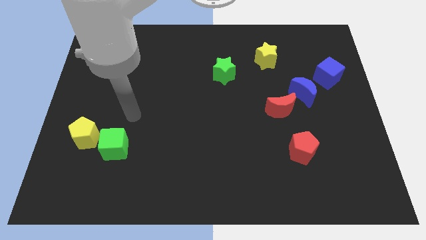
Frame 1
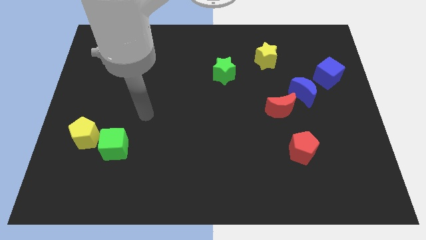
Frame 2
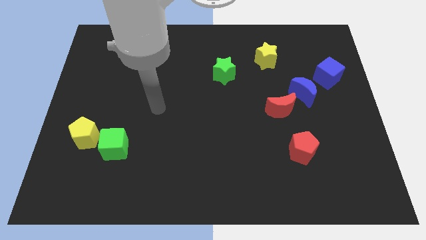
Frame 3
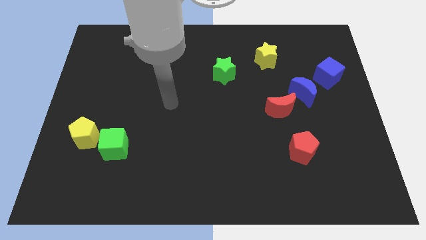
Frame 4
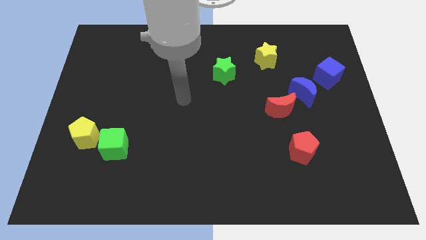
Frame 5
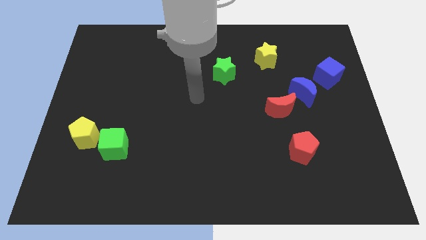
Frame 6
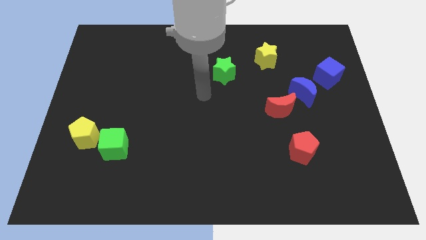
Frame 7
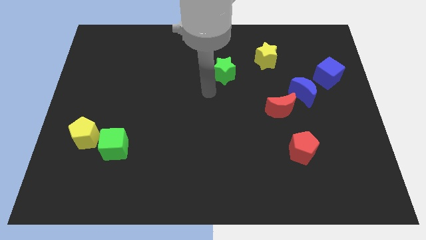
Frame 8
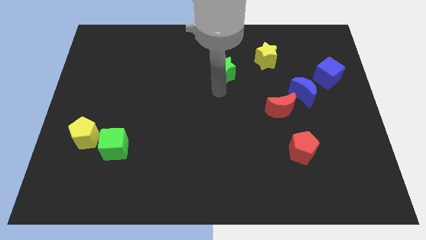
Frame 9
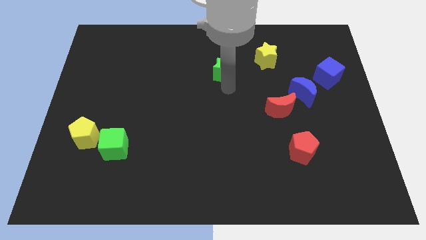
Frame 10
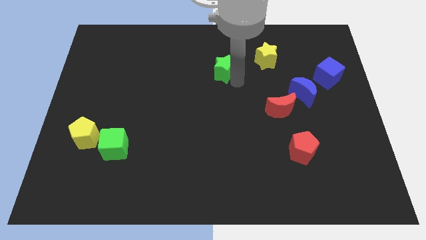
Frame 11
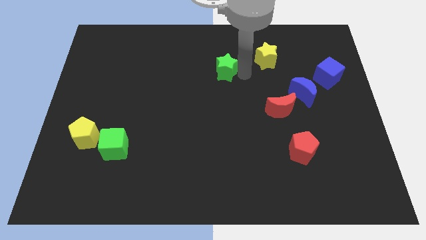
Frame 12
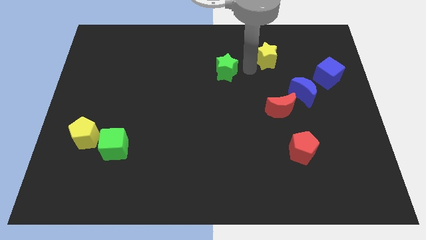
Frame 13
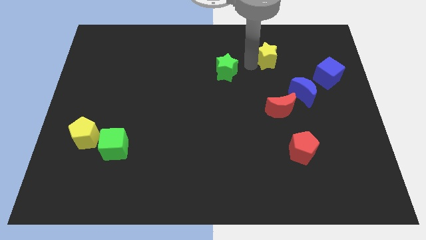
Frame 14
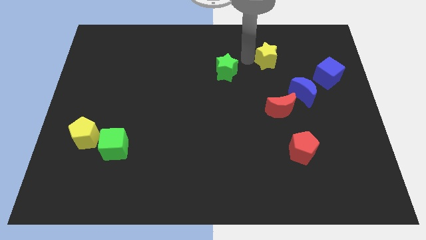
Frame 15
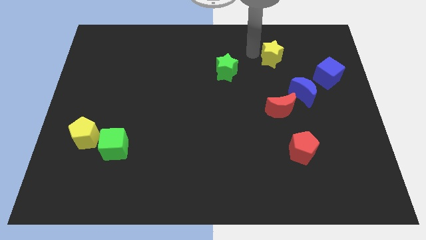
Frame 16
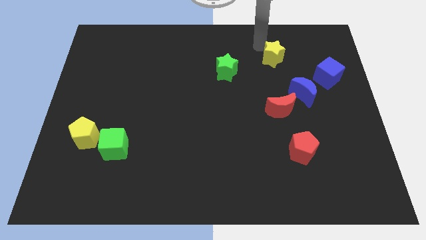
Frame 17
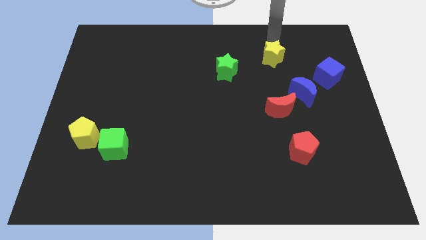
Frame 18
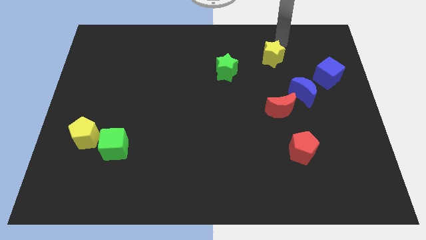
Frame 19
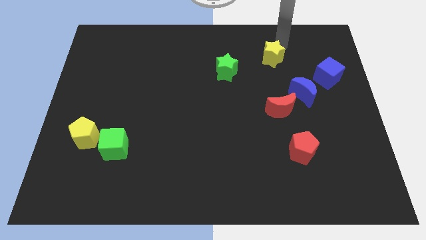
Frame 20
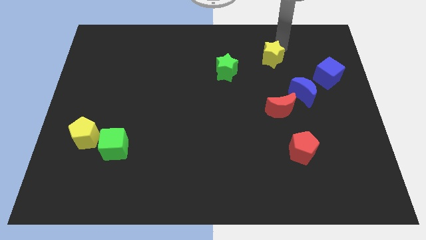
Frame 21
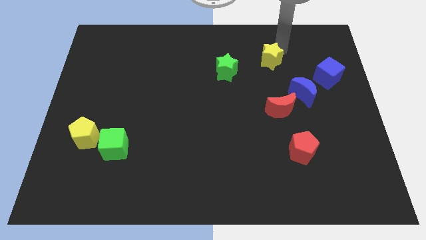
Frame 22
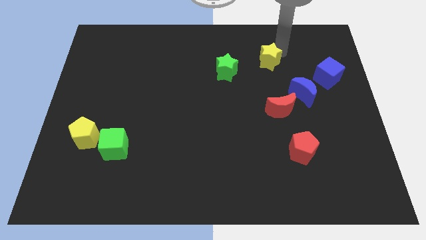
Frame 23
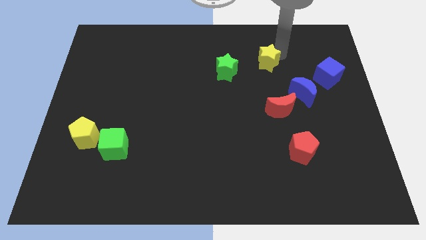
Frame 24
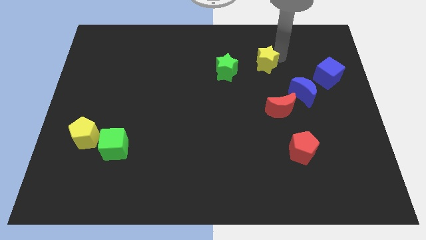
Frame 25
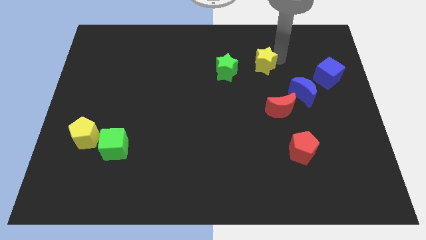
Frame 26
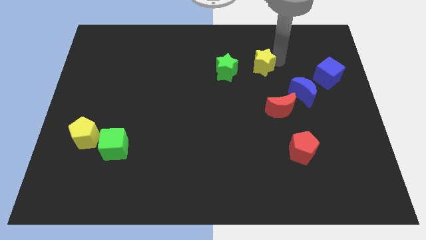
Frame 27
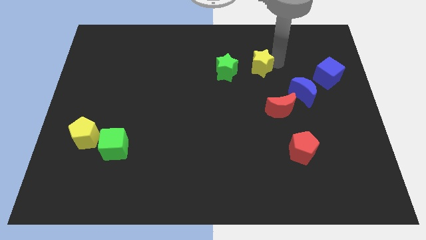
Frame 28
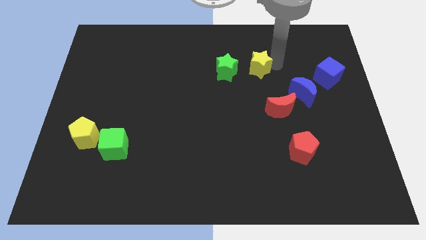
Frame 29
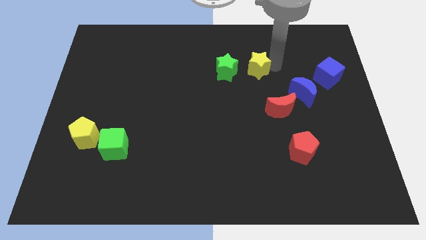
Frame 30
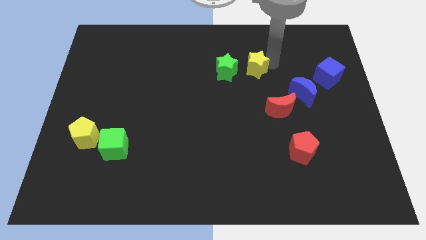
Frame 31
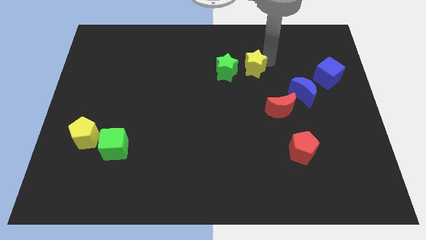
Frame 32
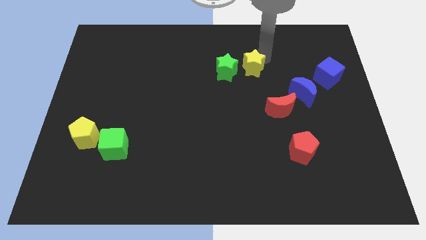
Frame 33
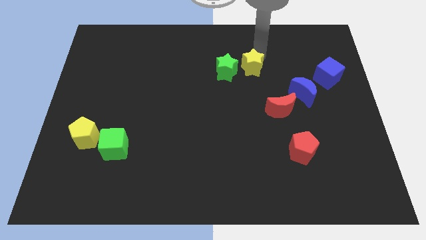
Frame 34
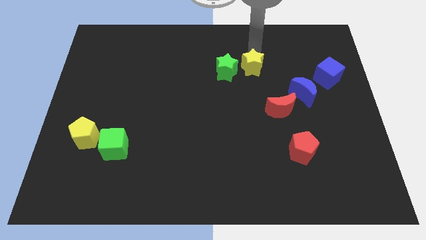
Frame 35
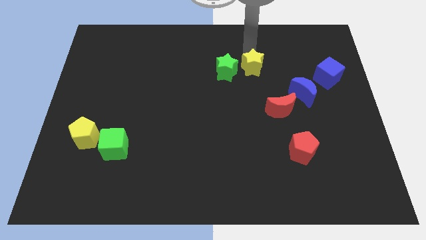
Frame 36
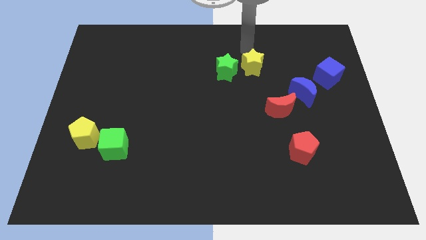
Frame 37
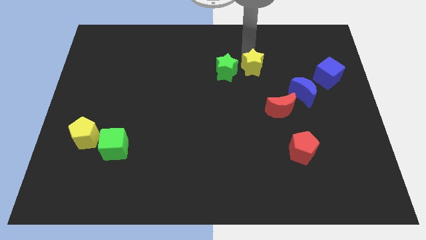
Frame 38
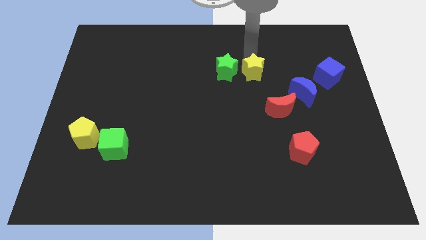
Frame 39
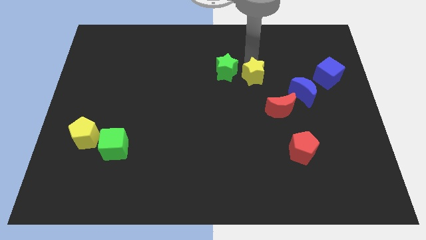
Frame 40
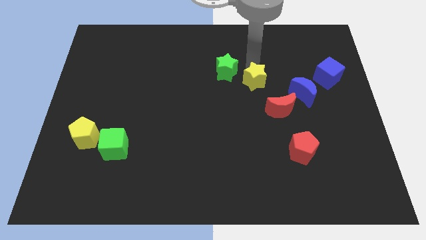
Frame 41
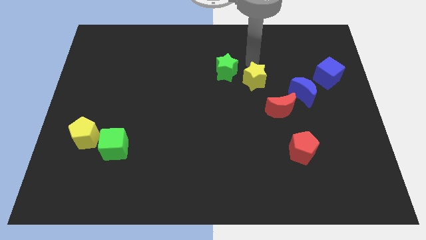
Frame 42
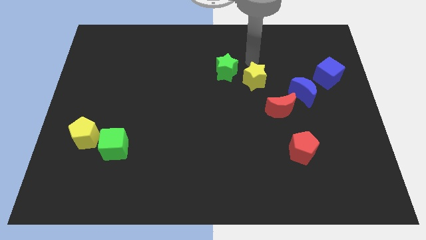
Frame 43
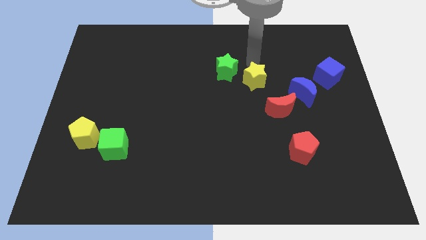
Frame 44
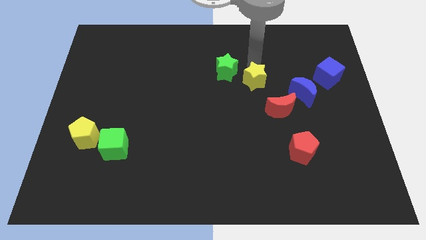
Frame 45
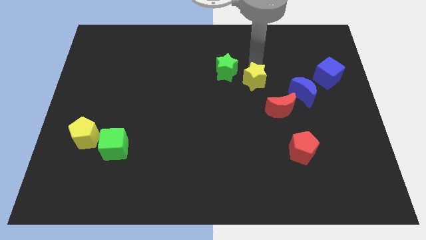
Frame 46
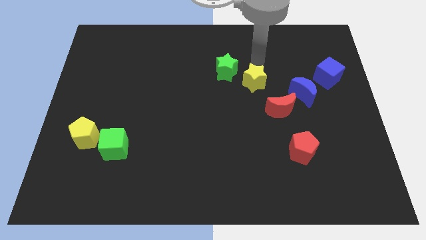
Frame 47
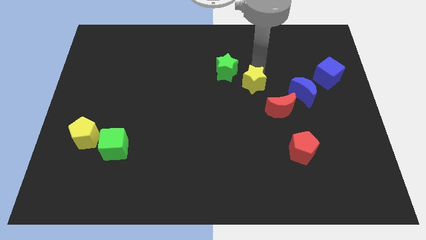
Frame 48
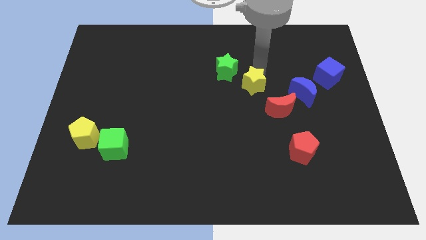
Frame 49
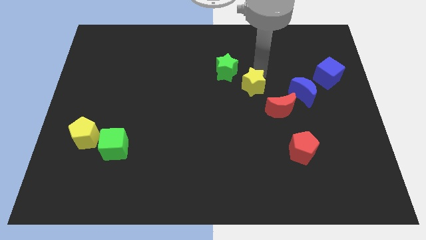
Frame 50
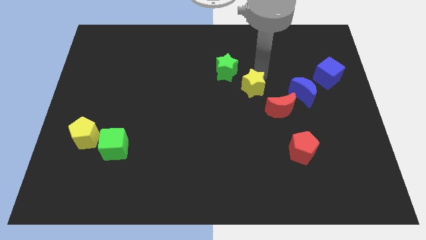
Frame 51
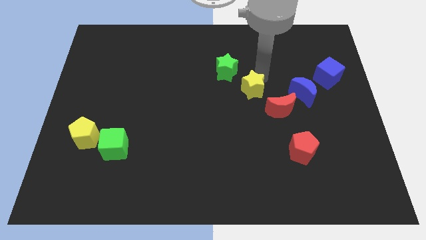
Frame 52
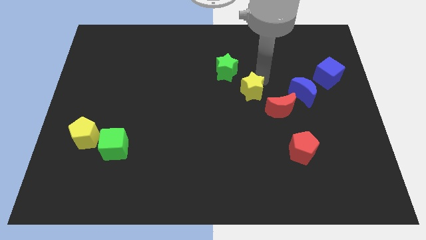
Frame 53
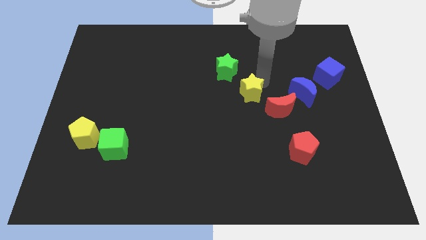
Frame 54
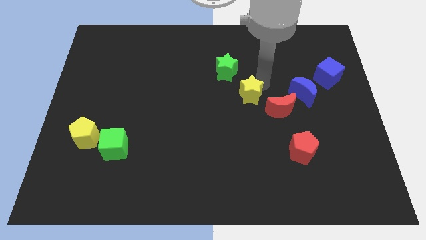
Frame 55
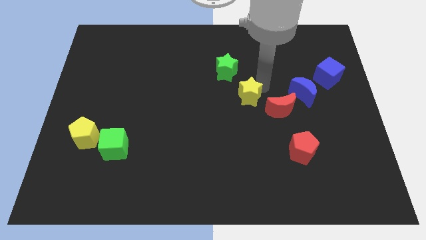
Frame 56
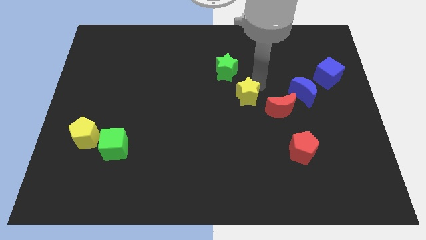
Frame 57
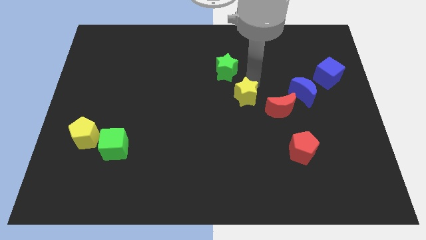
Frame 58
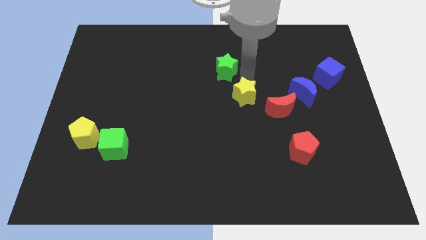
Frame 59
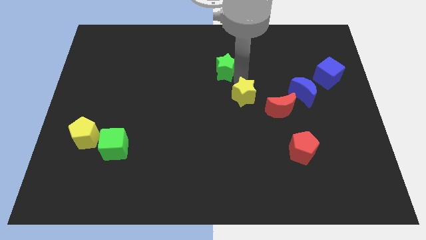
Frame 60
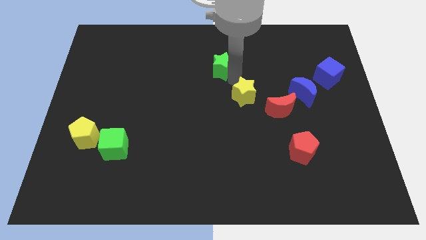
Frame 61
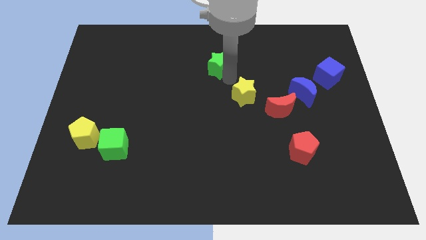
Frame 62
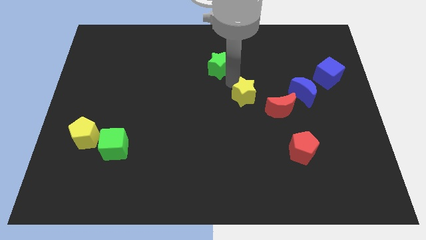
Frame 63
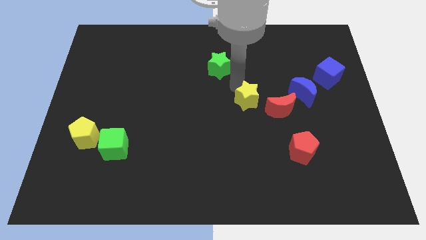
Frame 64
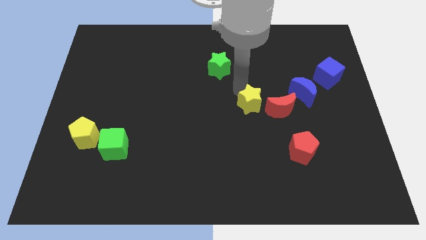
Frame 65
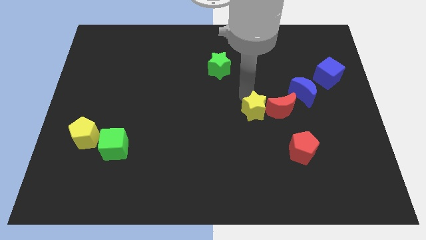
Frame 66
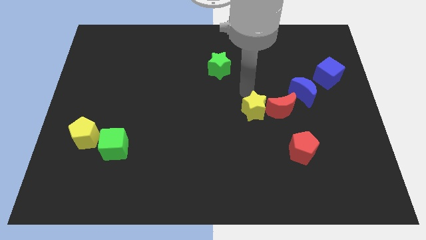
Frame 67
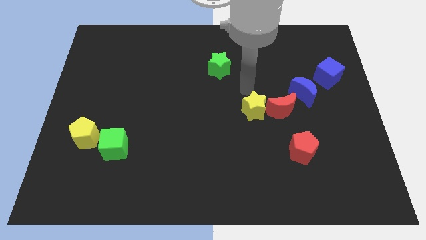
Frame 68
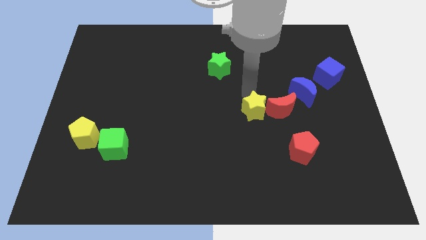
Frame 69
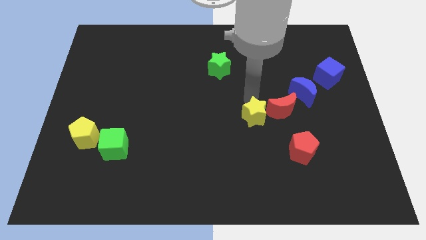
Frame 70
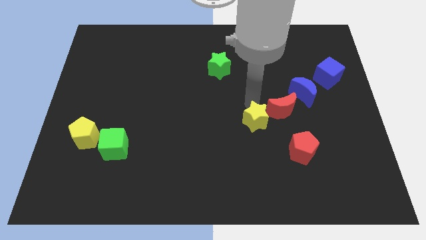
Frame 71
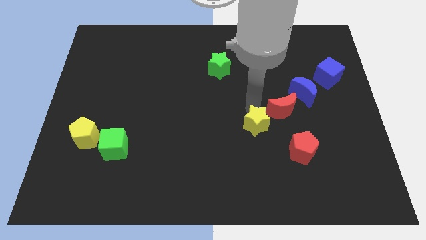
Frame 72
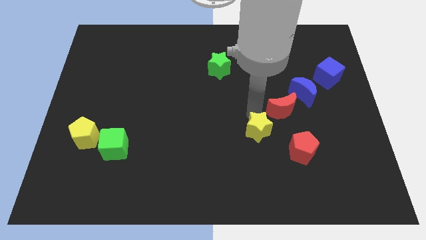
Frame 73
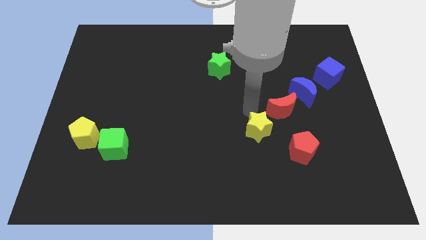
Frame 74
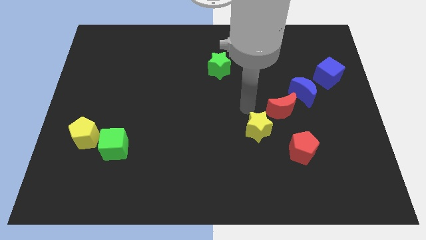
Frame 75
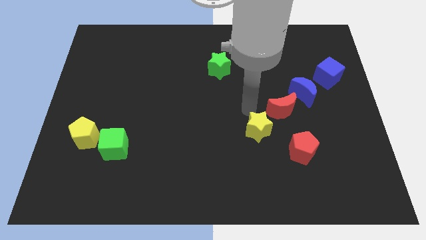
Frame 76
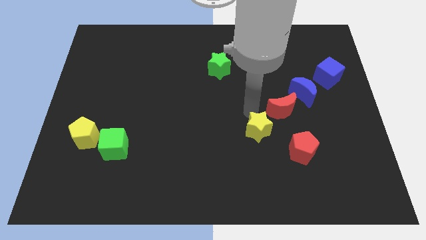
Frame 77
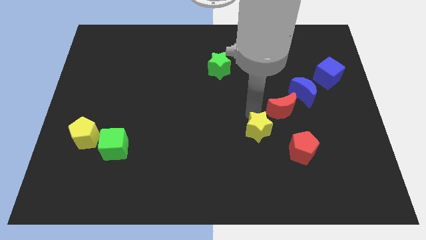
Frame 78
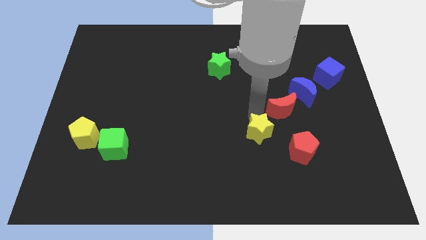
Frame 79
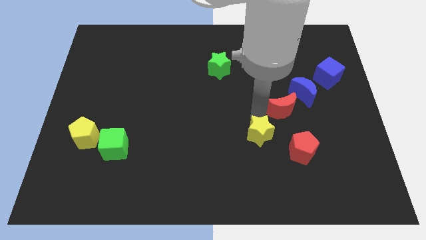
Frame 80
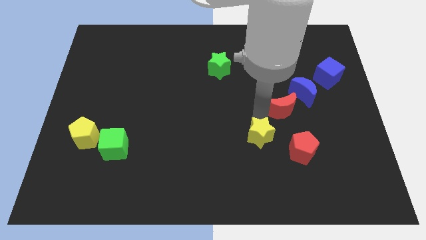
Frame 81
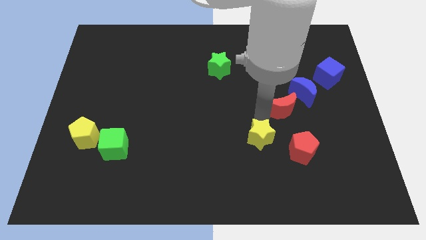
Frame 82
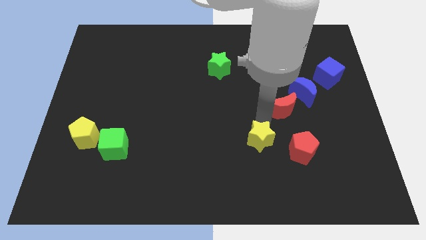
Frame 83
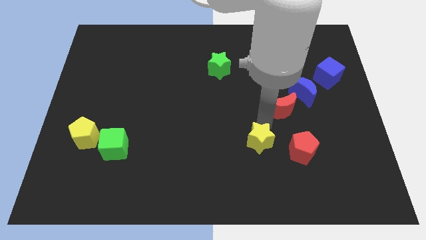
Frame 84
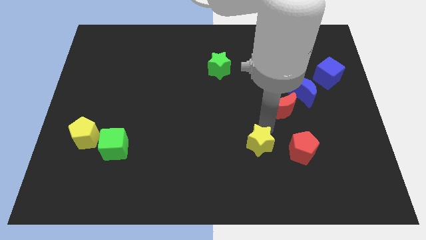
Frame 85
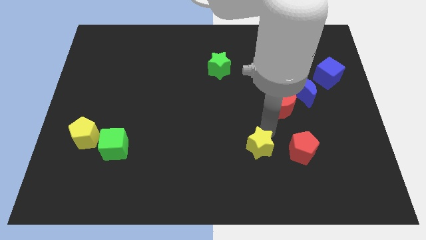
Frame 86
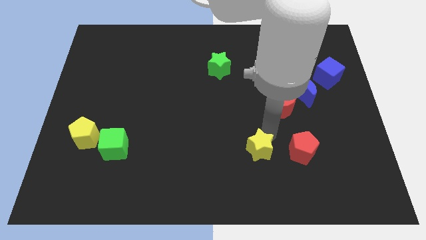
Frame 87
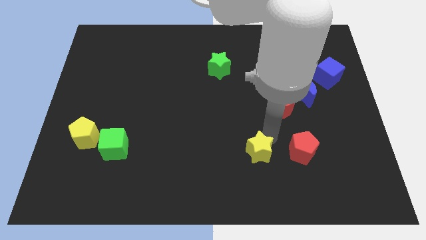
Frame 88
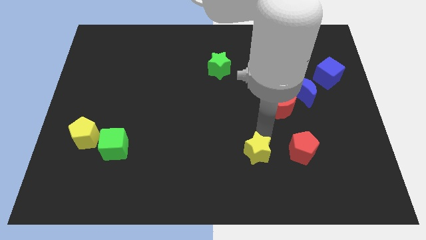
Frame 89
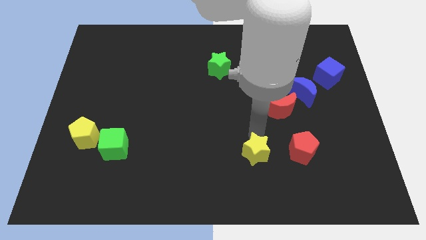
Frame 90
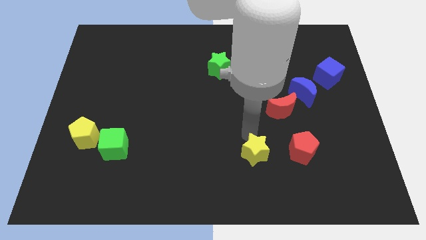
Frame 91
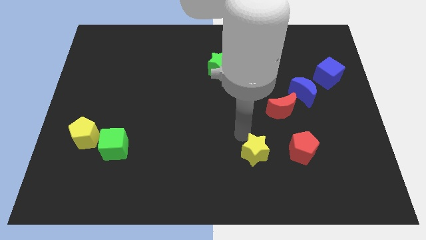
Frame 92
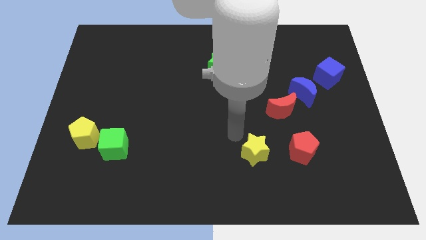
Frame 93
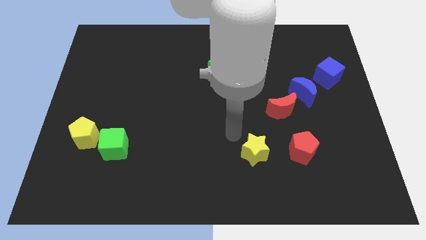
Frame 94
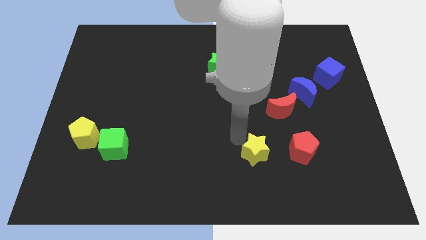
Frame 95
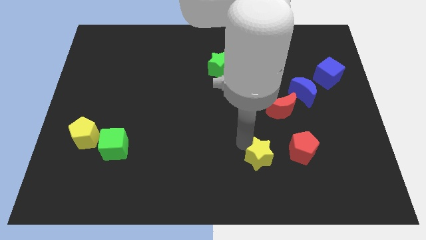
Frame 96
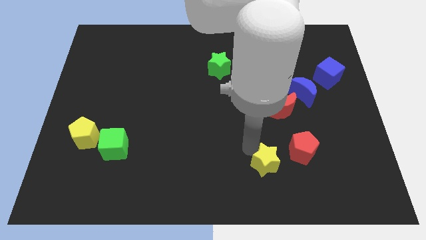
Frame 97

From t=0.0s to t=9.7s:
push the yellow star to the bottom left of the red pentagon
